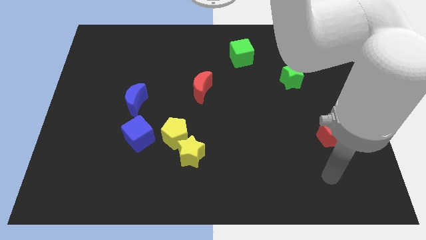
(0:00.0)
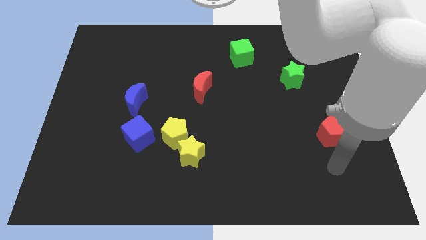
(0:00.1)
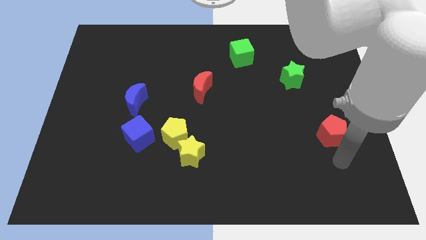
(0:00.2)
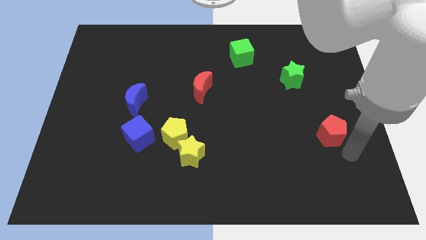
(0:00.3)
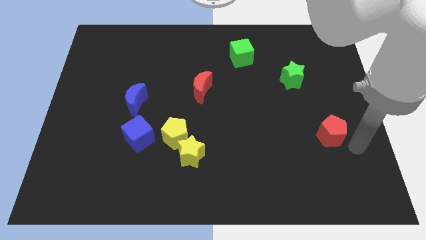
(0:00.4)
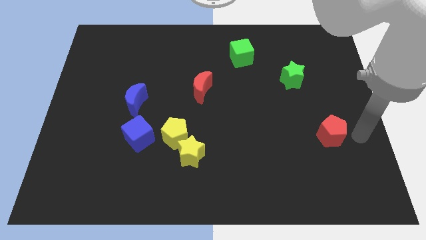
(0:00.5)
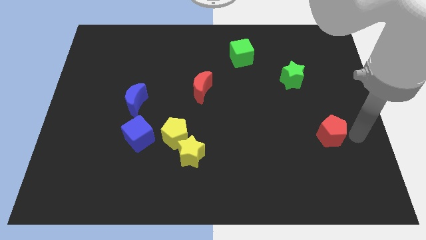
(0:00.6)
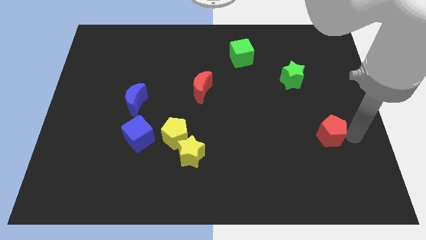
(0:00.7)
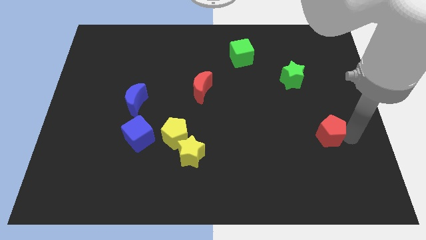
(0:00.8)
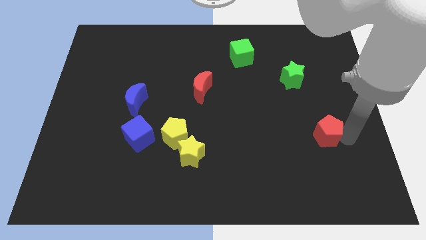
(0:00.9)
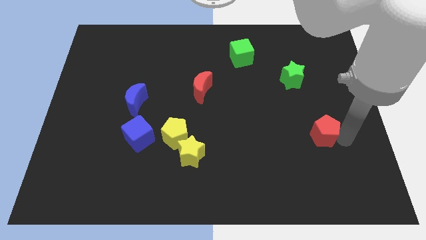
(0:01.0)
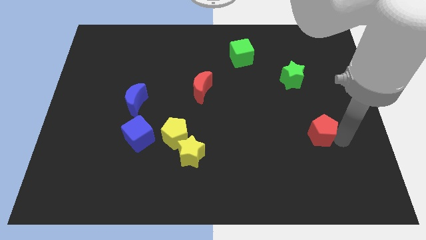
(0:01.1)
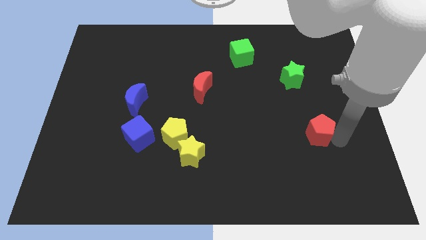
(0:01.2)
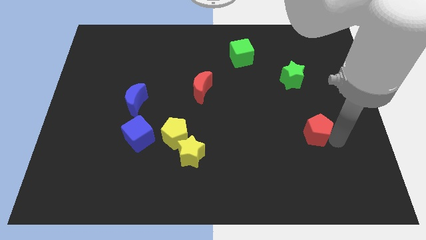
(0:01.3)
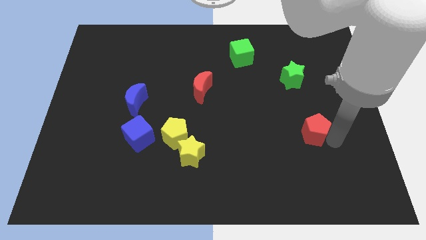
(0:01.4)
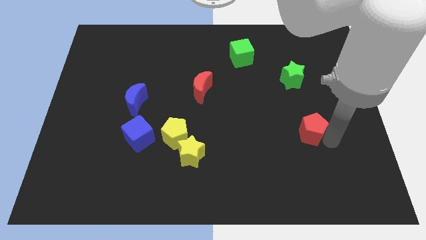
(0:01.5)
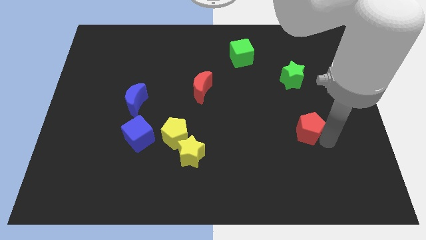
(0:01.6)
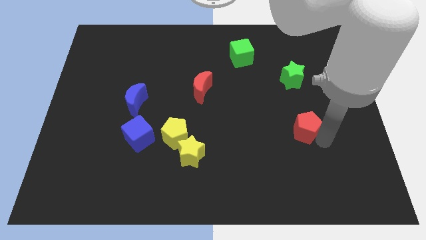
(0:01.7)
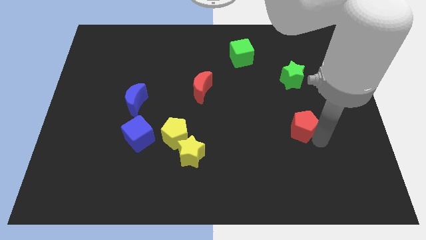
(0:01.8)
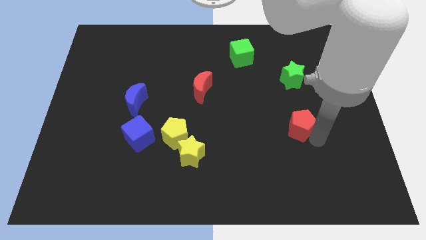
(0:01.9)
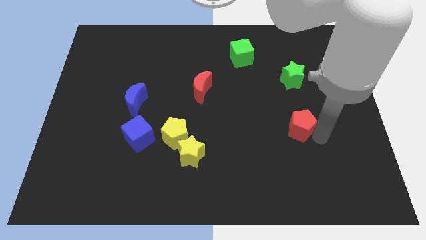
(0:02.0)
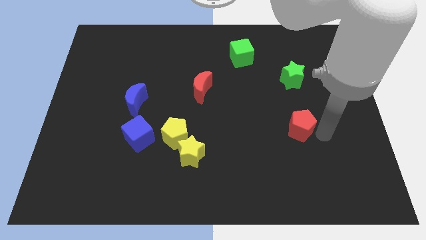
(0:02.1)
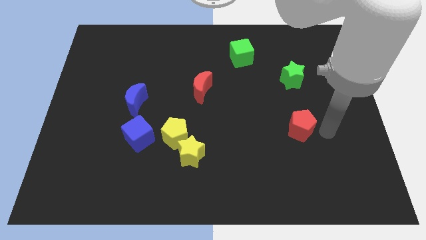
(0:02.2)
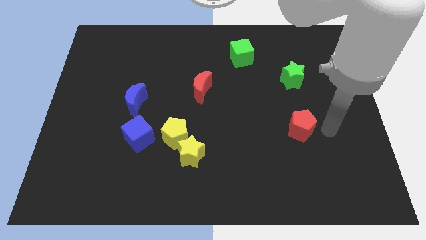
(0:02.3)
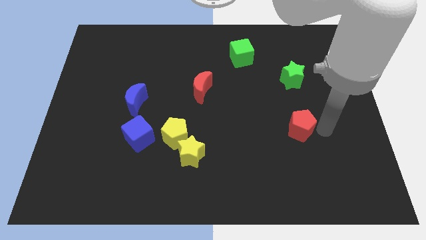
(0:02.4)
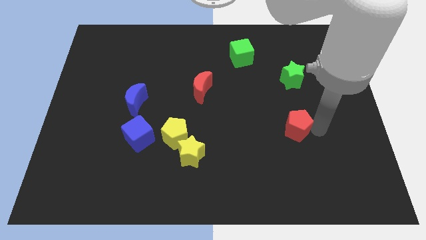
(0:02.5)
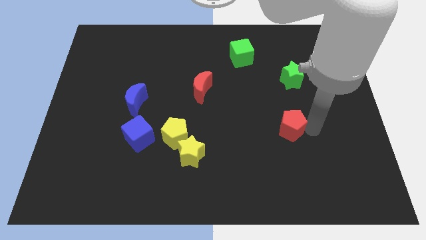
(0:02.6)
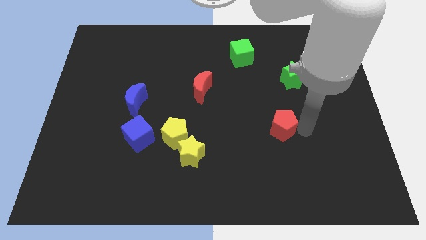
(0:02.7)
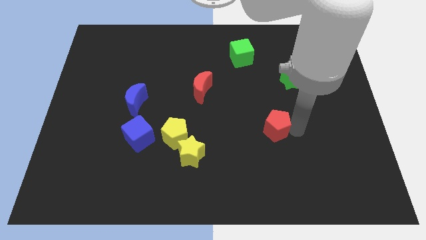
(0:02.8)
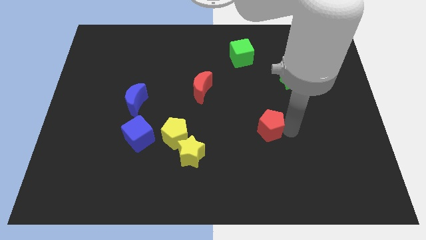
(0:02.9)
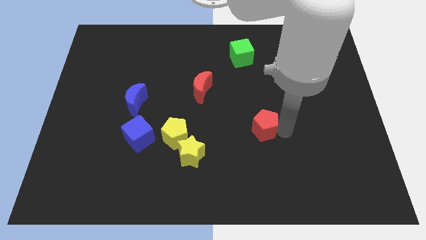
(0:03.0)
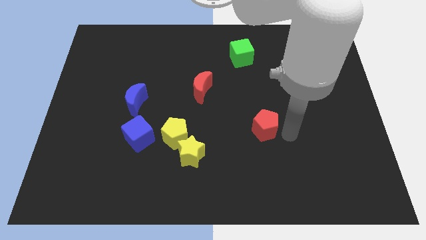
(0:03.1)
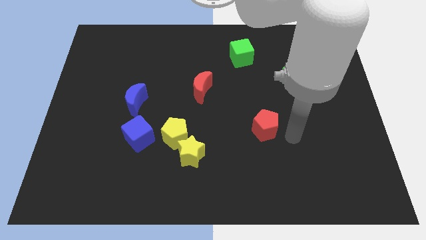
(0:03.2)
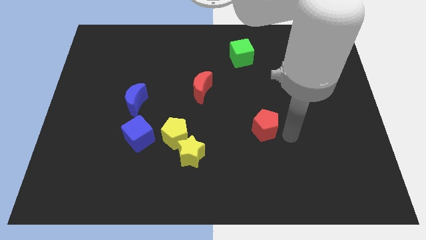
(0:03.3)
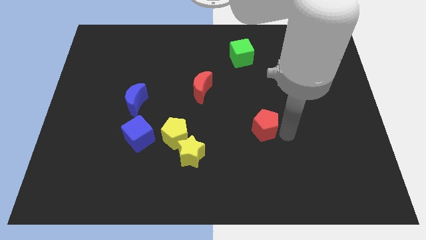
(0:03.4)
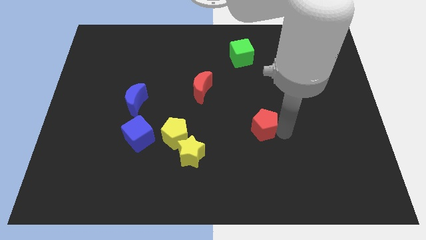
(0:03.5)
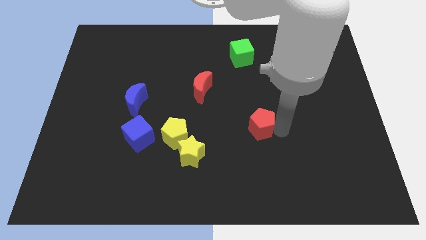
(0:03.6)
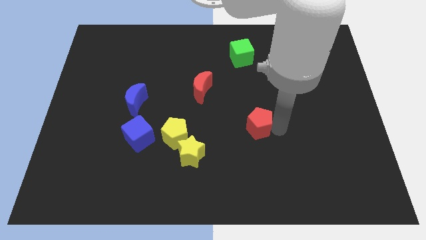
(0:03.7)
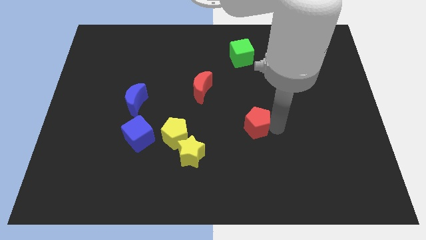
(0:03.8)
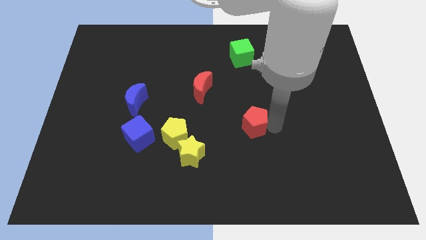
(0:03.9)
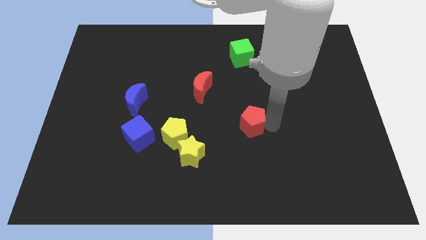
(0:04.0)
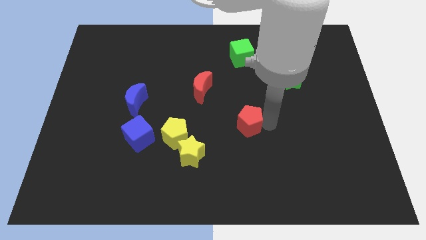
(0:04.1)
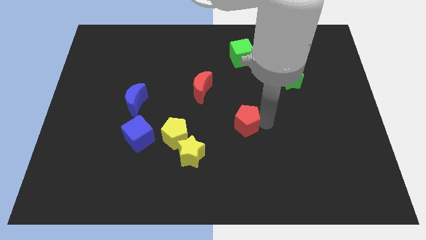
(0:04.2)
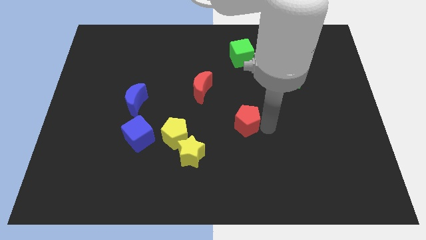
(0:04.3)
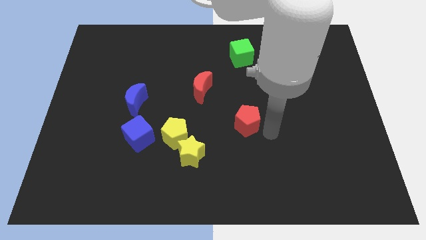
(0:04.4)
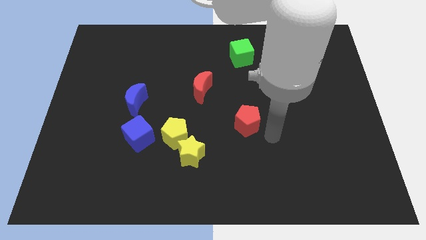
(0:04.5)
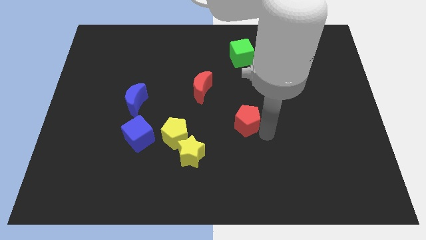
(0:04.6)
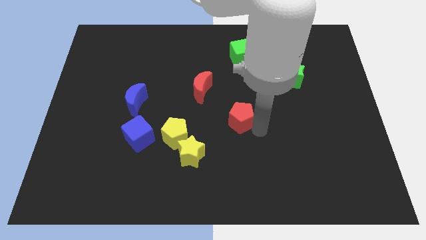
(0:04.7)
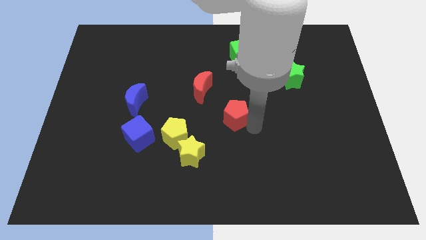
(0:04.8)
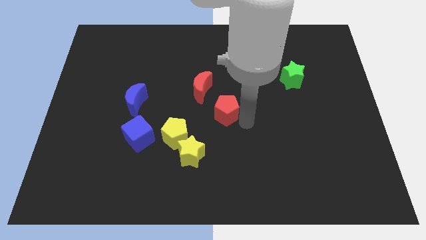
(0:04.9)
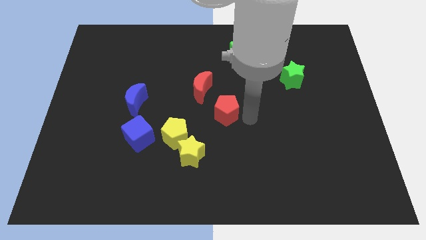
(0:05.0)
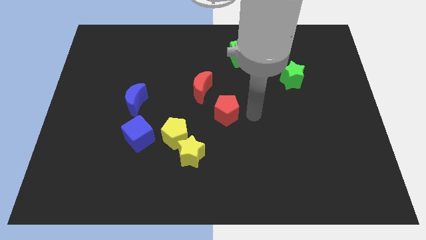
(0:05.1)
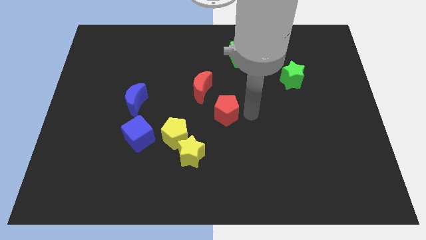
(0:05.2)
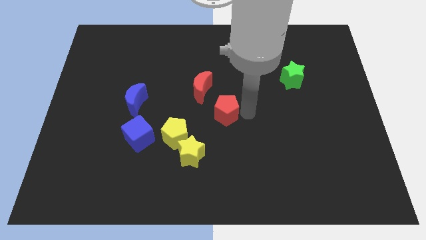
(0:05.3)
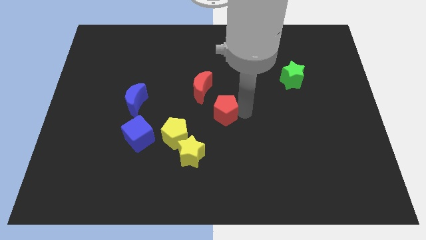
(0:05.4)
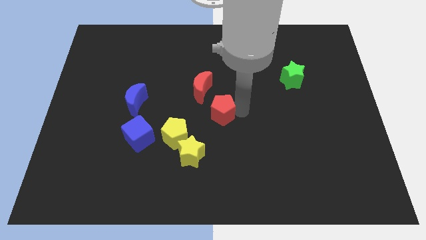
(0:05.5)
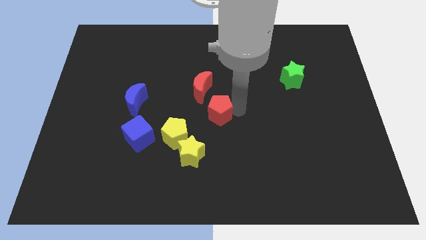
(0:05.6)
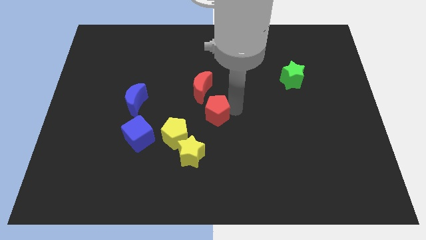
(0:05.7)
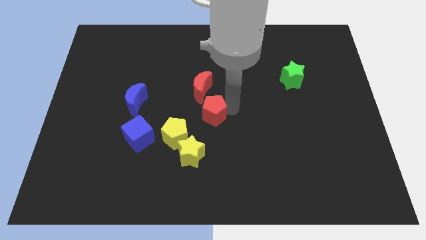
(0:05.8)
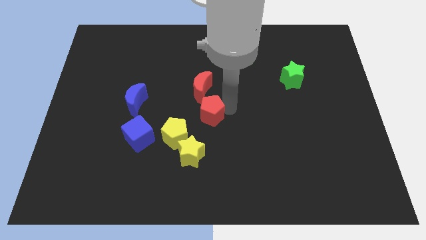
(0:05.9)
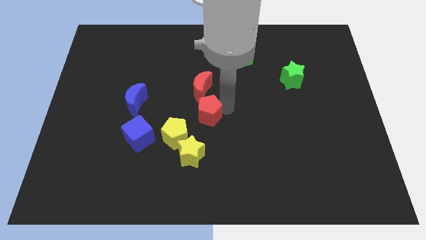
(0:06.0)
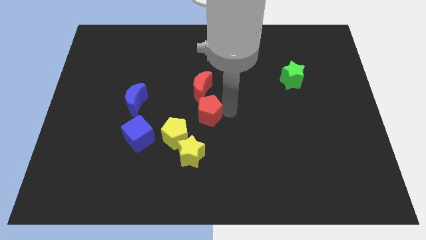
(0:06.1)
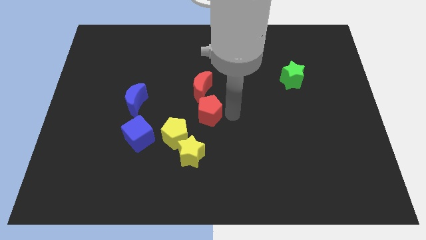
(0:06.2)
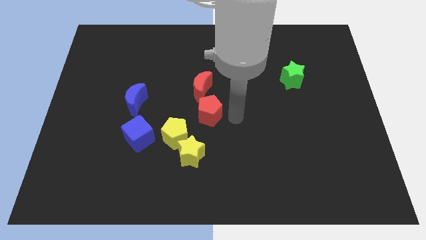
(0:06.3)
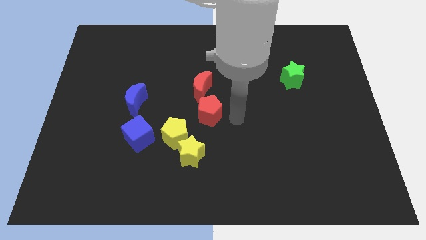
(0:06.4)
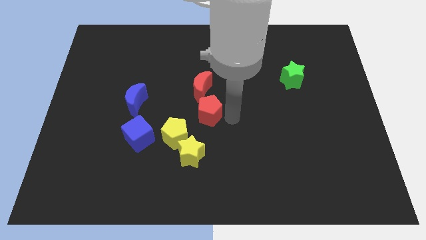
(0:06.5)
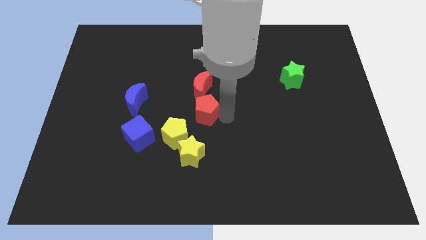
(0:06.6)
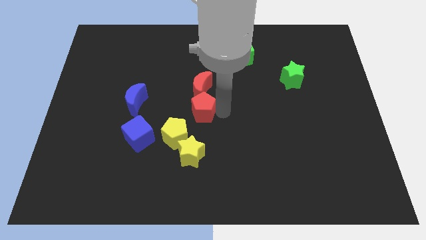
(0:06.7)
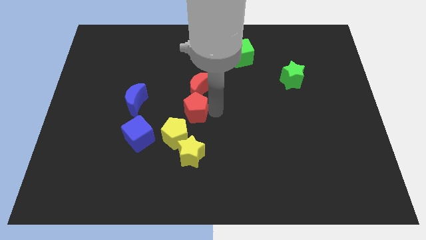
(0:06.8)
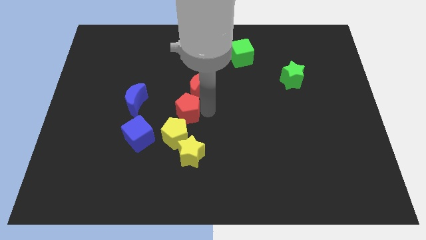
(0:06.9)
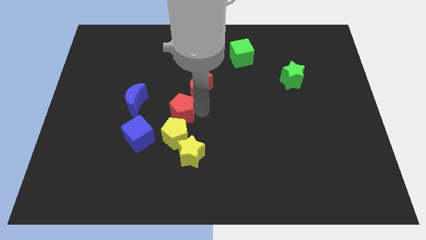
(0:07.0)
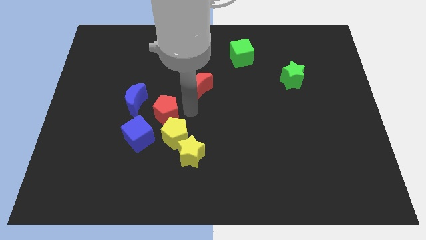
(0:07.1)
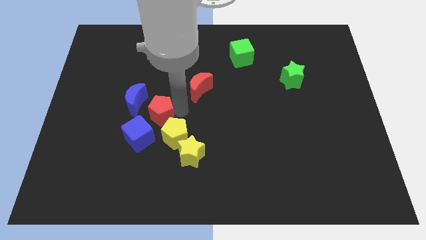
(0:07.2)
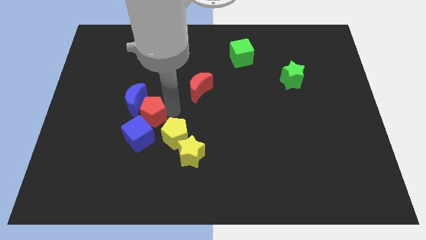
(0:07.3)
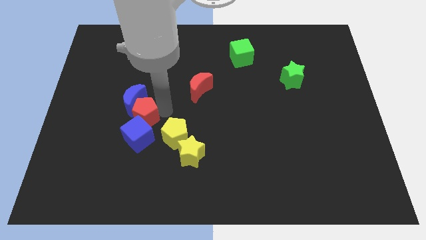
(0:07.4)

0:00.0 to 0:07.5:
push the red pentagon close to the blue cube
